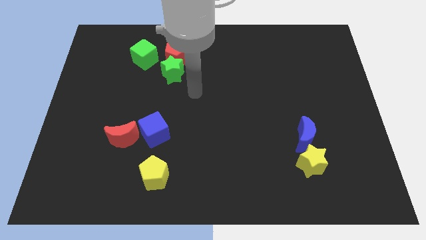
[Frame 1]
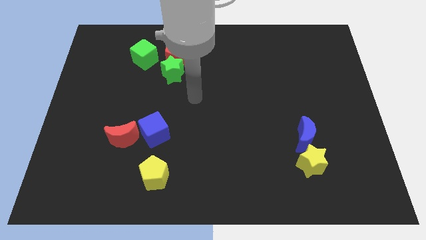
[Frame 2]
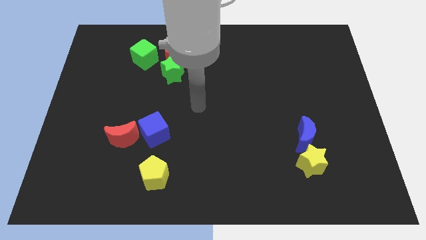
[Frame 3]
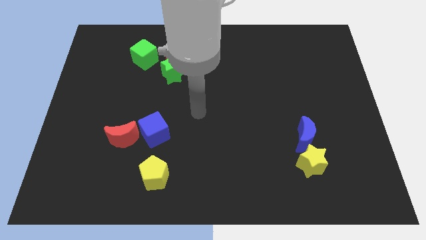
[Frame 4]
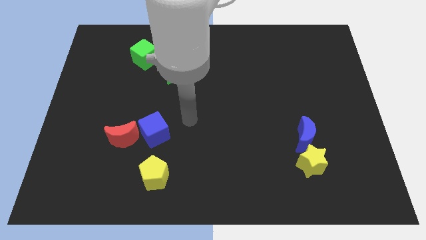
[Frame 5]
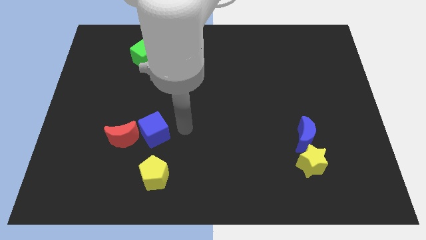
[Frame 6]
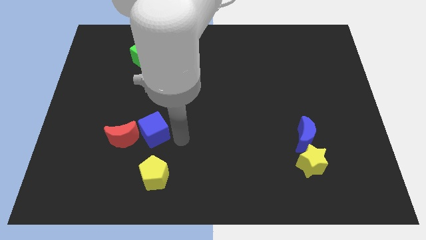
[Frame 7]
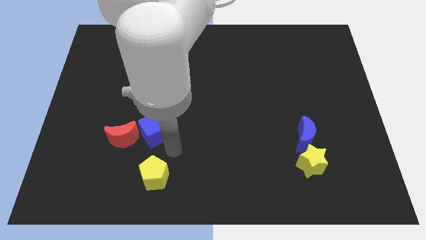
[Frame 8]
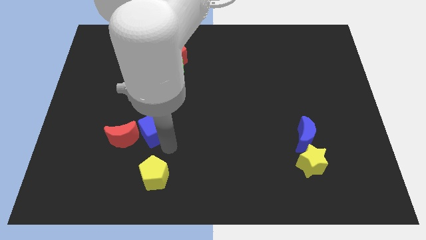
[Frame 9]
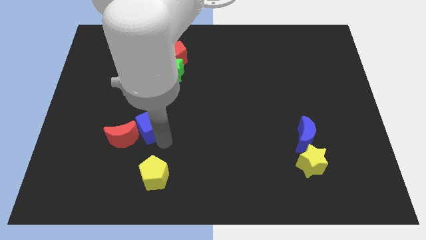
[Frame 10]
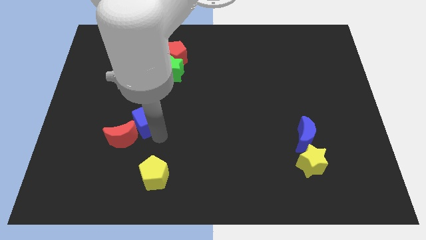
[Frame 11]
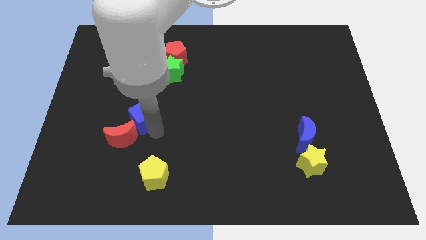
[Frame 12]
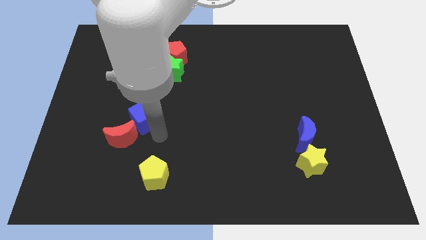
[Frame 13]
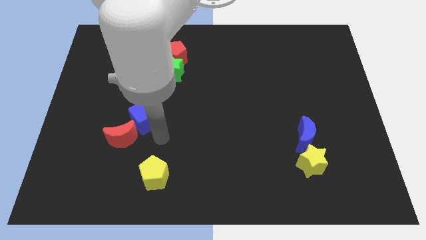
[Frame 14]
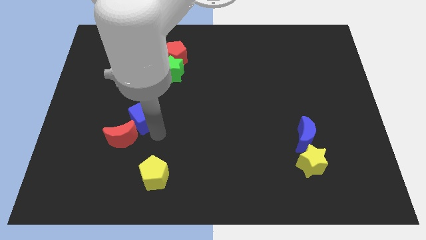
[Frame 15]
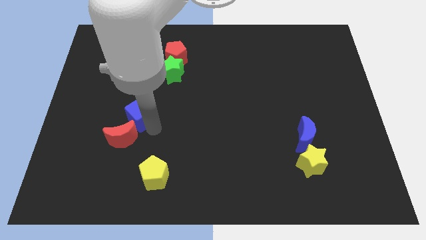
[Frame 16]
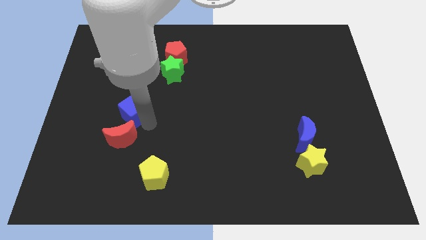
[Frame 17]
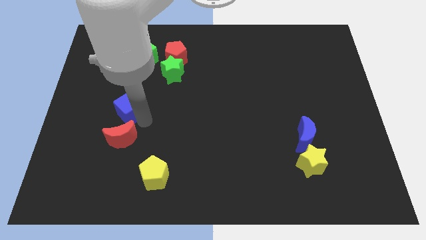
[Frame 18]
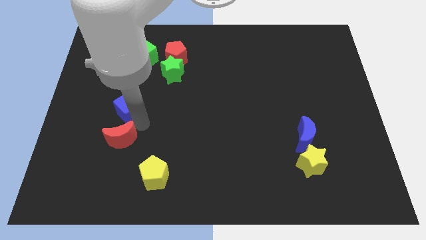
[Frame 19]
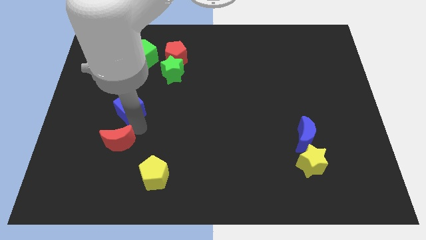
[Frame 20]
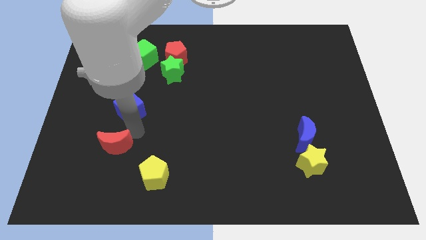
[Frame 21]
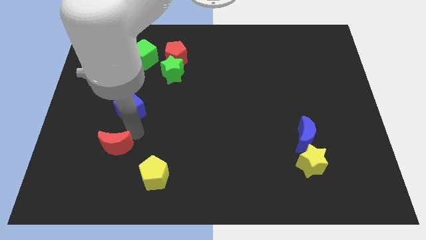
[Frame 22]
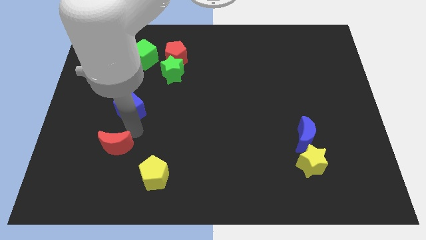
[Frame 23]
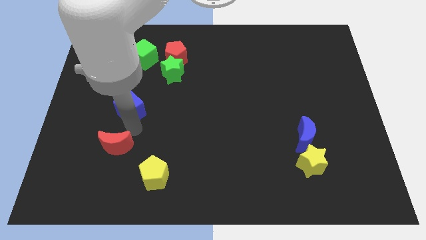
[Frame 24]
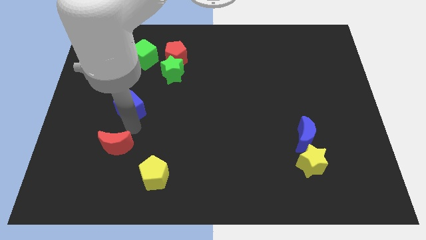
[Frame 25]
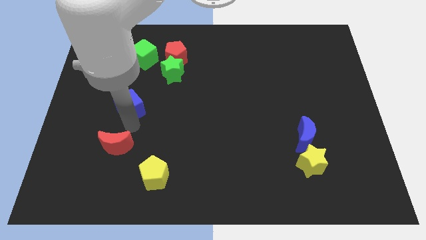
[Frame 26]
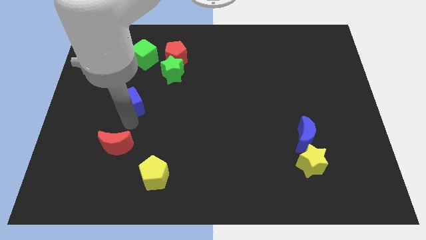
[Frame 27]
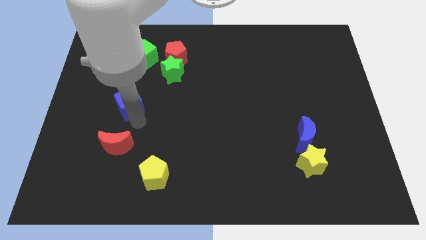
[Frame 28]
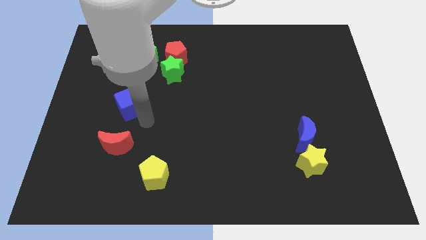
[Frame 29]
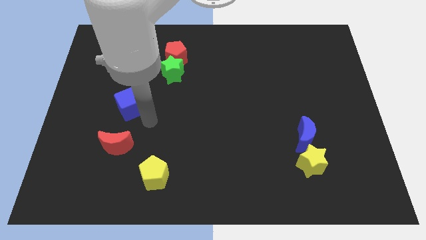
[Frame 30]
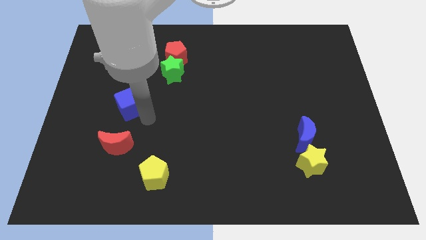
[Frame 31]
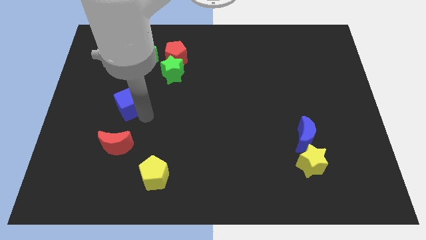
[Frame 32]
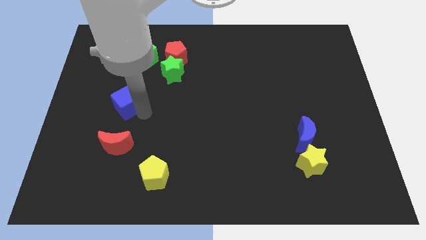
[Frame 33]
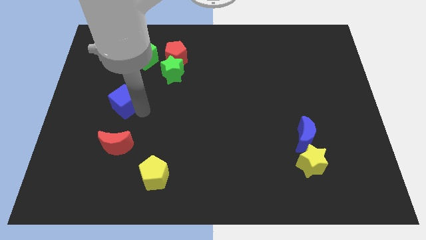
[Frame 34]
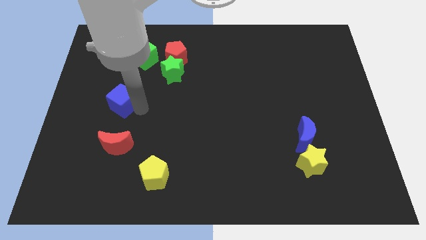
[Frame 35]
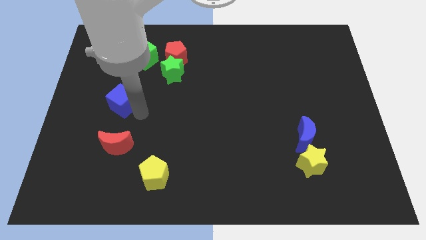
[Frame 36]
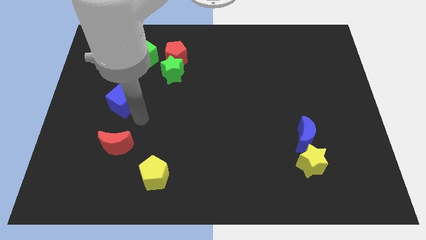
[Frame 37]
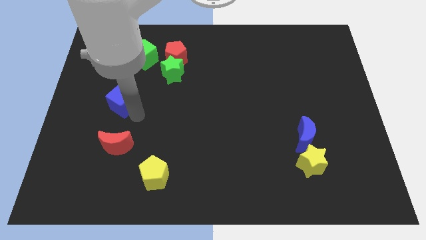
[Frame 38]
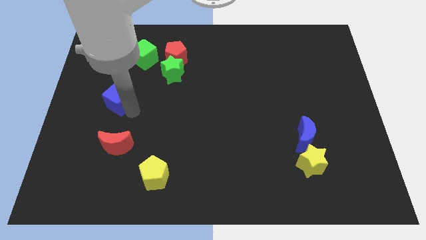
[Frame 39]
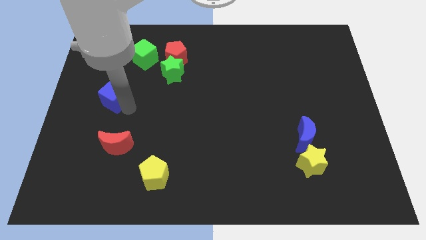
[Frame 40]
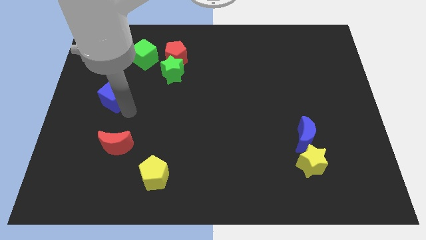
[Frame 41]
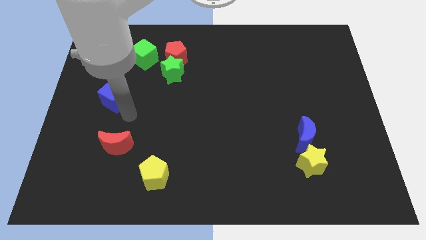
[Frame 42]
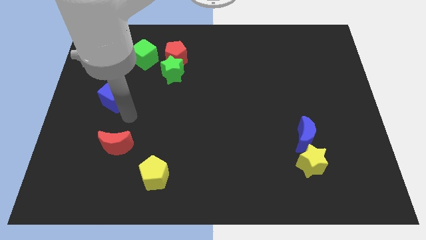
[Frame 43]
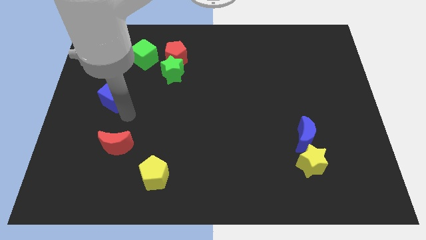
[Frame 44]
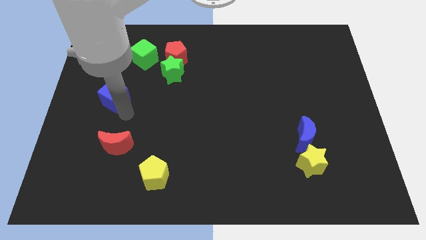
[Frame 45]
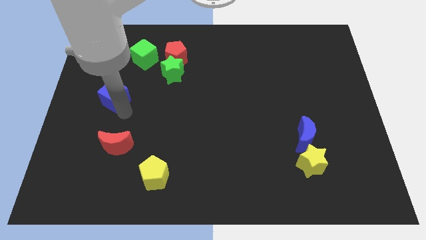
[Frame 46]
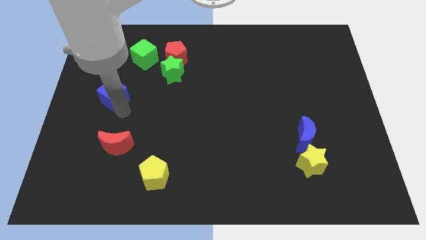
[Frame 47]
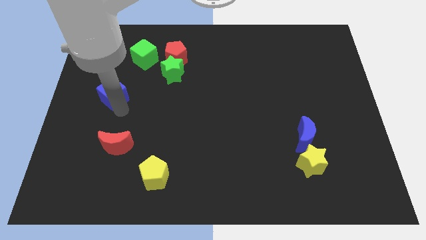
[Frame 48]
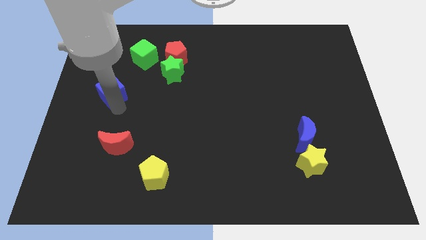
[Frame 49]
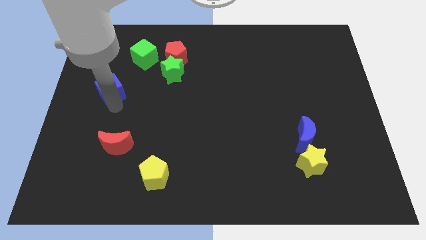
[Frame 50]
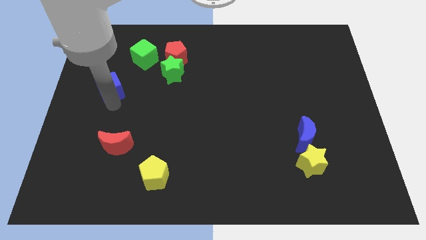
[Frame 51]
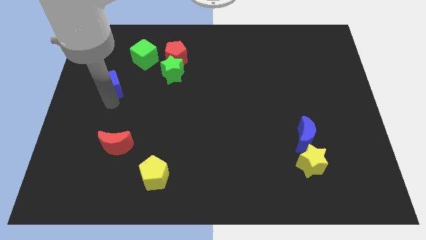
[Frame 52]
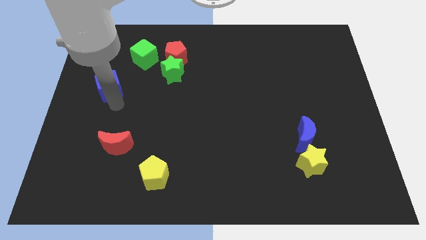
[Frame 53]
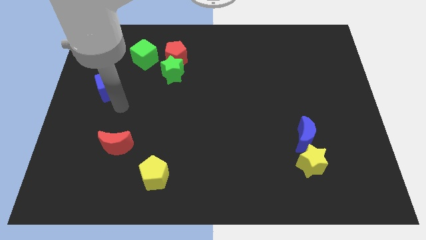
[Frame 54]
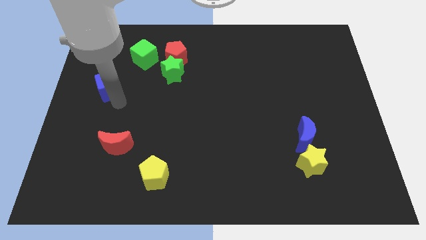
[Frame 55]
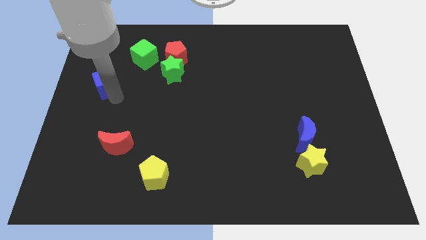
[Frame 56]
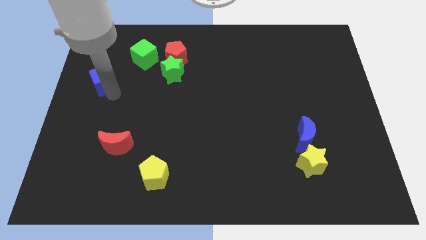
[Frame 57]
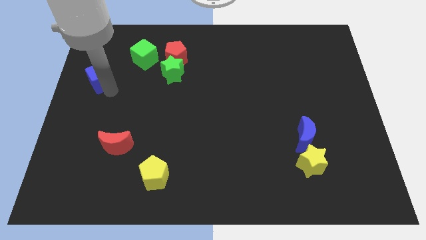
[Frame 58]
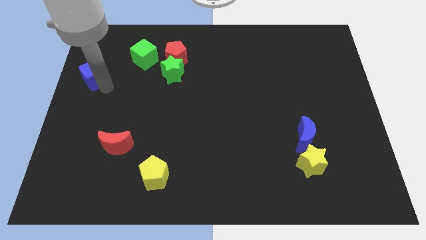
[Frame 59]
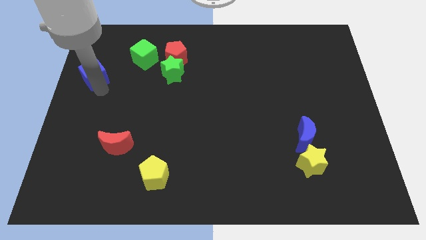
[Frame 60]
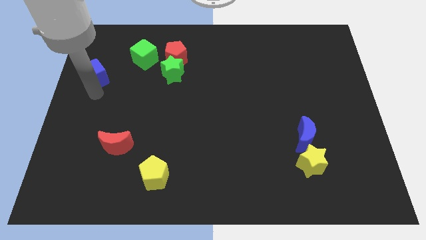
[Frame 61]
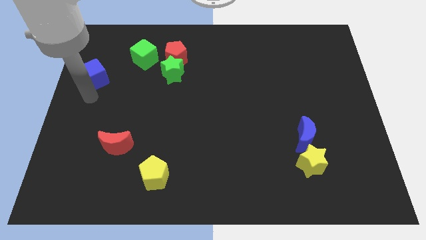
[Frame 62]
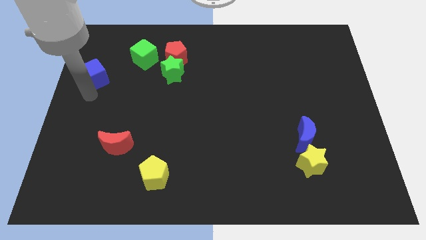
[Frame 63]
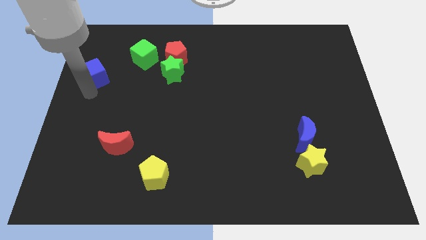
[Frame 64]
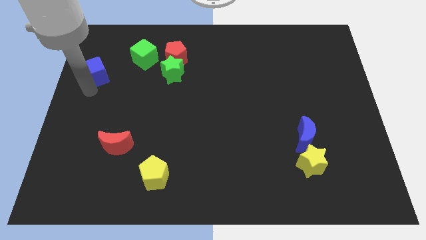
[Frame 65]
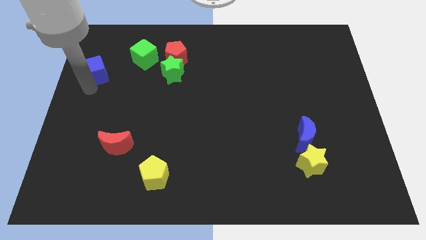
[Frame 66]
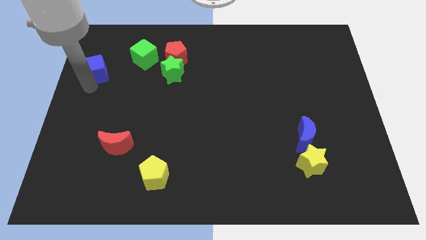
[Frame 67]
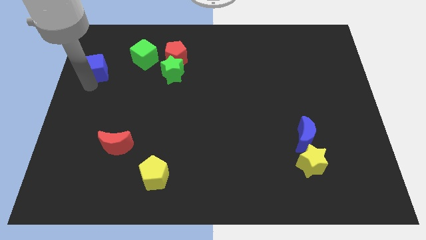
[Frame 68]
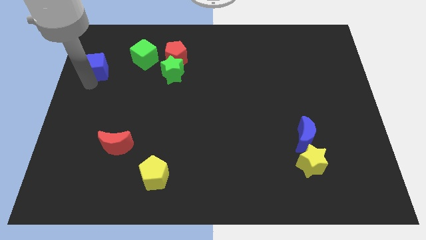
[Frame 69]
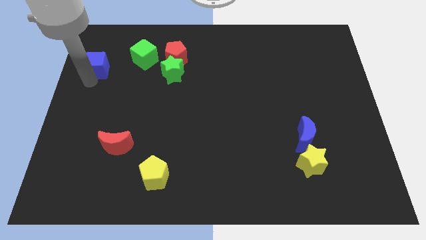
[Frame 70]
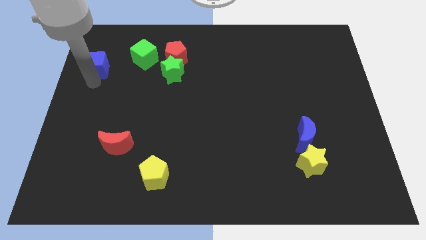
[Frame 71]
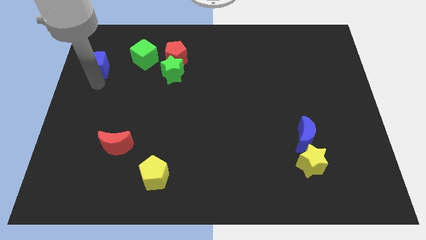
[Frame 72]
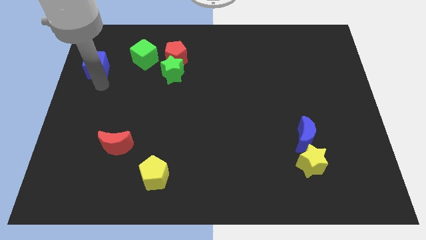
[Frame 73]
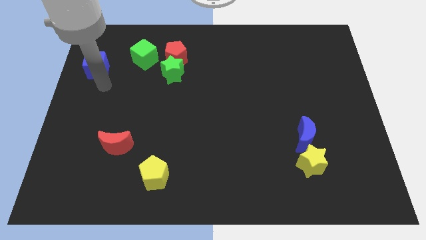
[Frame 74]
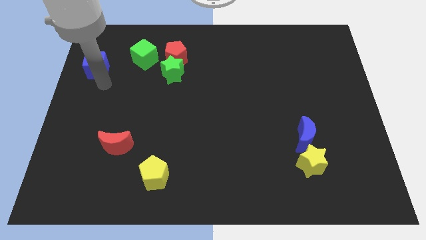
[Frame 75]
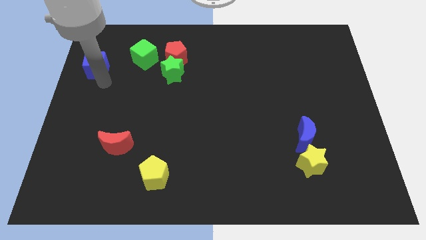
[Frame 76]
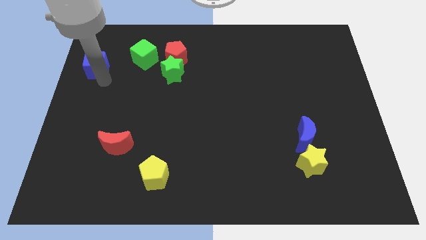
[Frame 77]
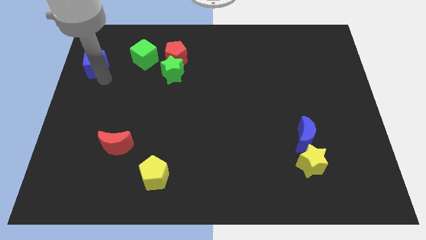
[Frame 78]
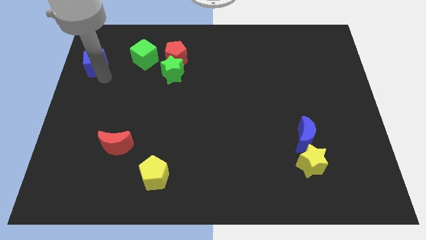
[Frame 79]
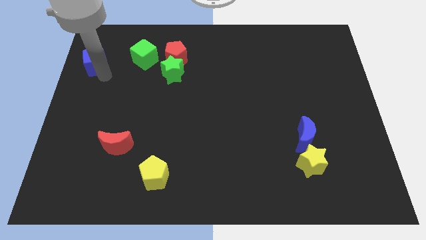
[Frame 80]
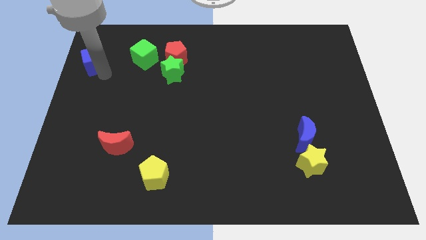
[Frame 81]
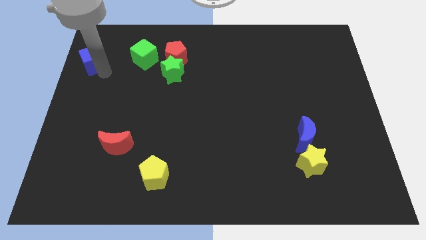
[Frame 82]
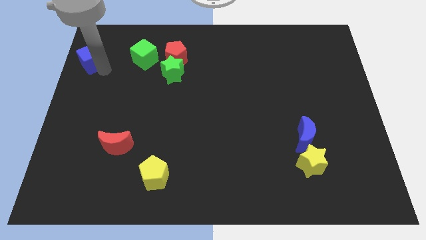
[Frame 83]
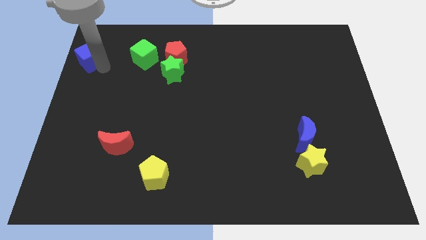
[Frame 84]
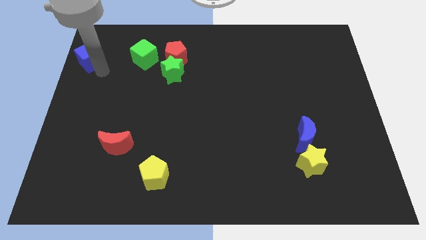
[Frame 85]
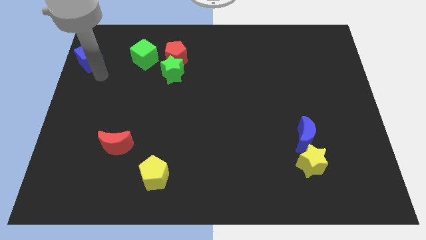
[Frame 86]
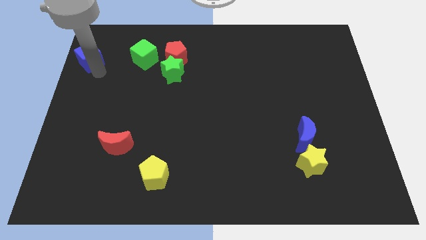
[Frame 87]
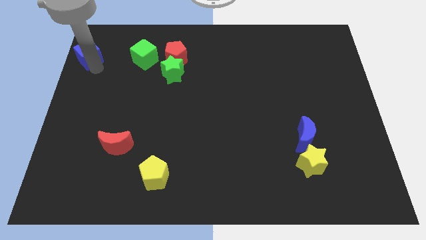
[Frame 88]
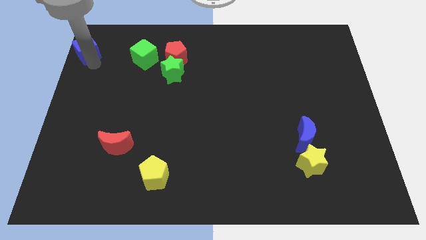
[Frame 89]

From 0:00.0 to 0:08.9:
put the blue cube to the top left corner
